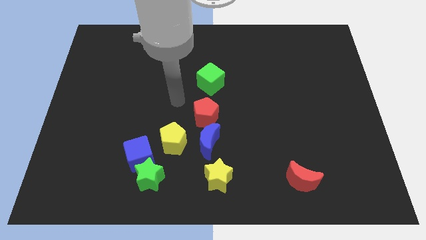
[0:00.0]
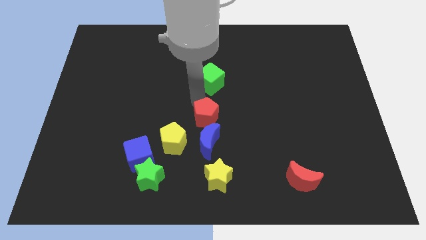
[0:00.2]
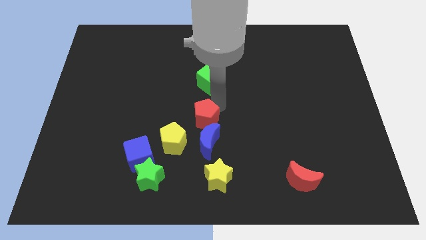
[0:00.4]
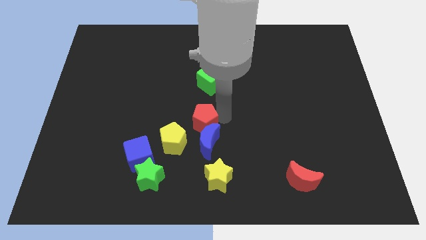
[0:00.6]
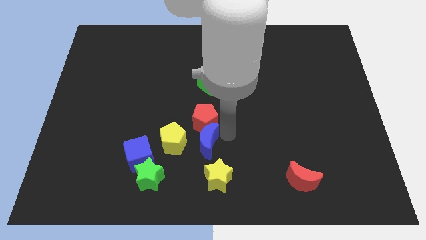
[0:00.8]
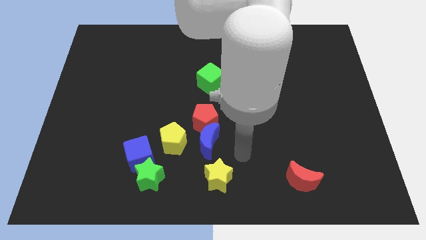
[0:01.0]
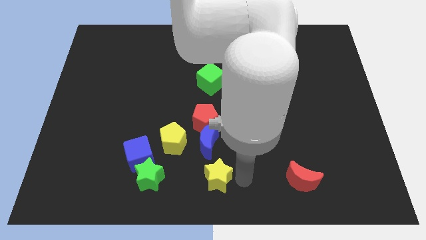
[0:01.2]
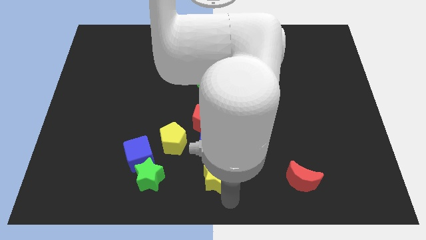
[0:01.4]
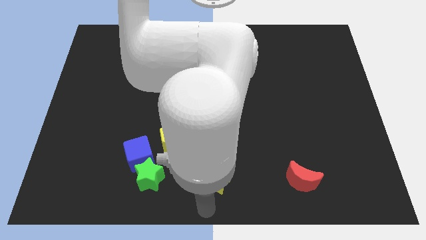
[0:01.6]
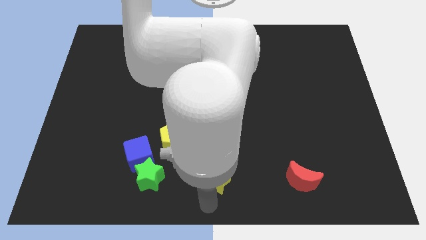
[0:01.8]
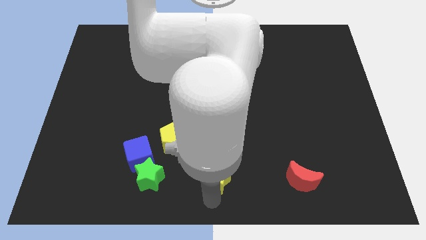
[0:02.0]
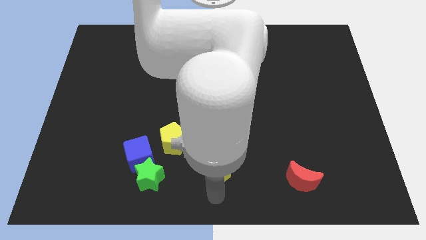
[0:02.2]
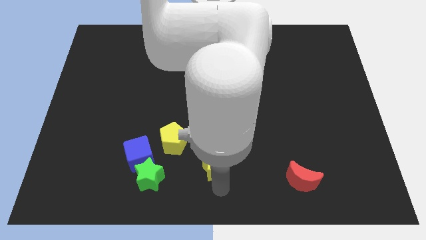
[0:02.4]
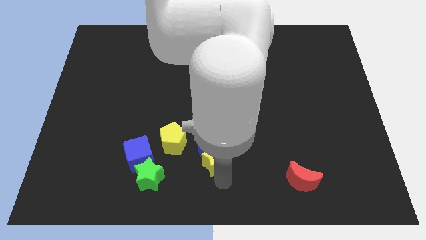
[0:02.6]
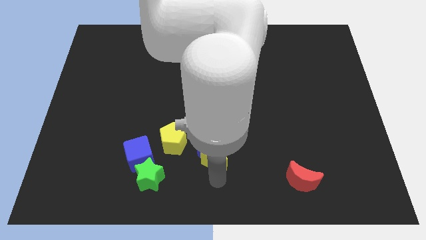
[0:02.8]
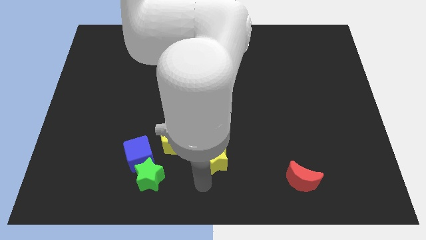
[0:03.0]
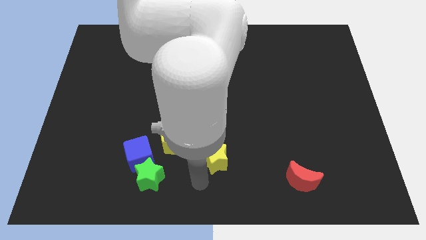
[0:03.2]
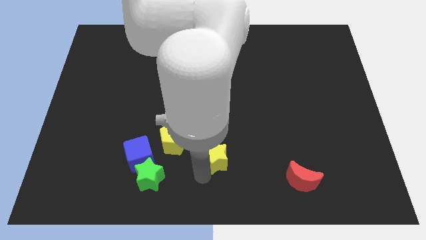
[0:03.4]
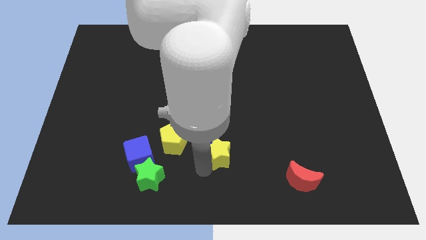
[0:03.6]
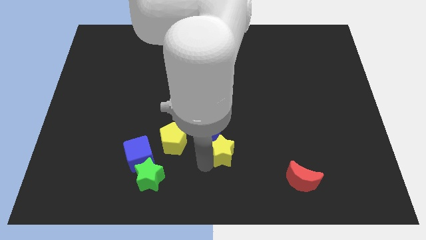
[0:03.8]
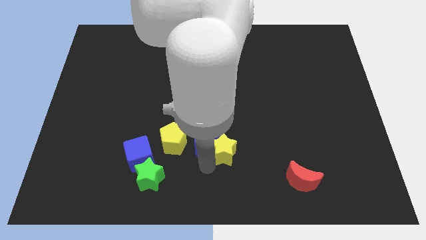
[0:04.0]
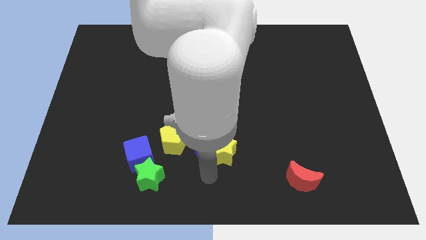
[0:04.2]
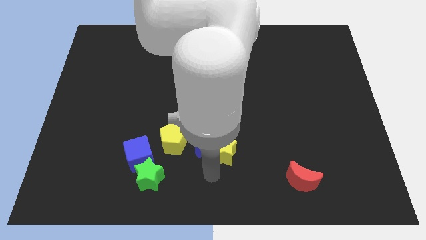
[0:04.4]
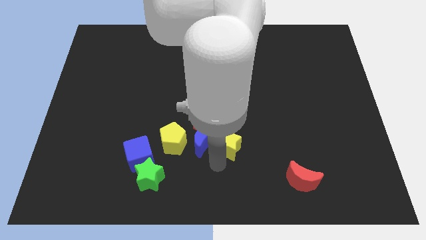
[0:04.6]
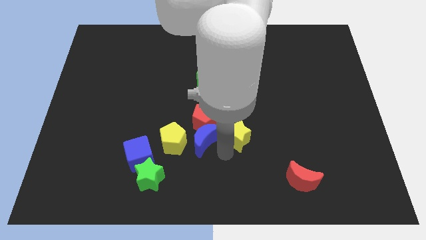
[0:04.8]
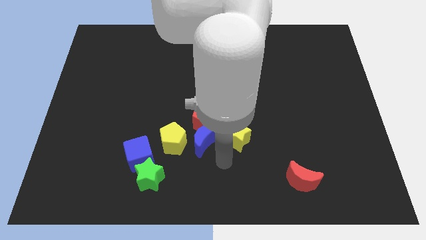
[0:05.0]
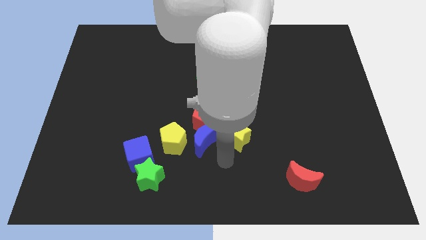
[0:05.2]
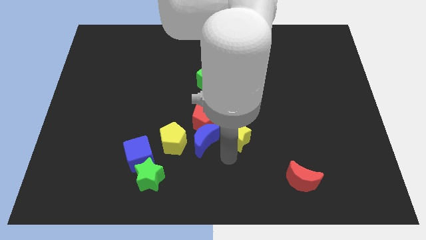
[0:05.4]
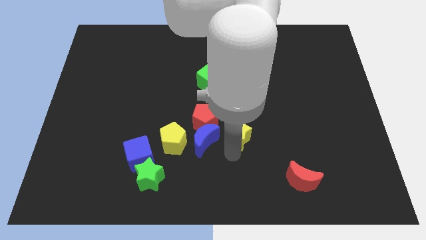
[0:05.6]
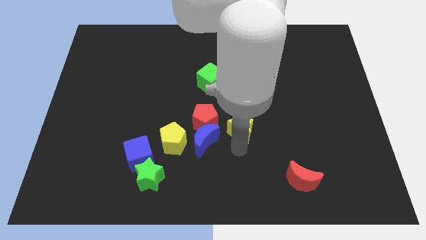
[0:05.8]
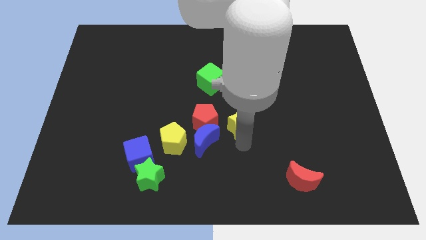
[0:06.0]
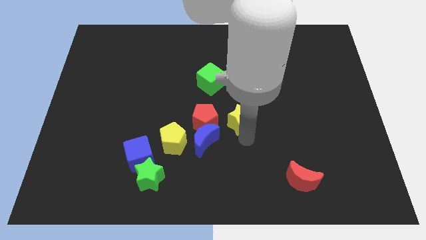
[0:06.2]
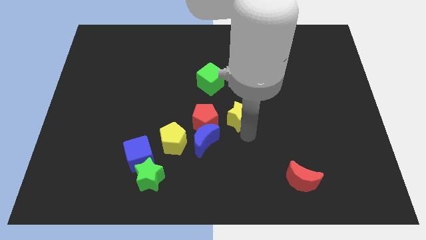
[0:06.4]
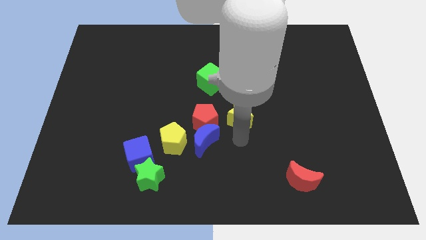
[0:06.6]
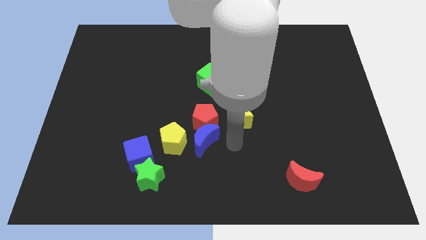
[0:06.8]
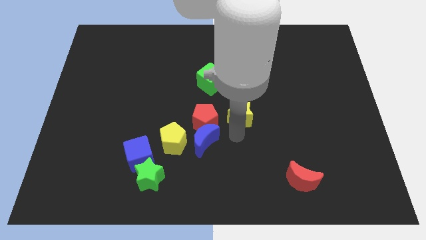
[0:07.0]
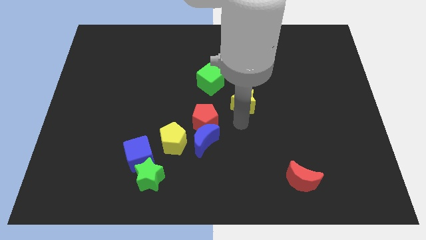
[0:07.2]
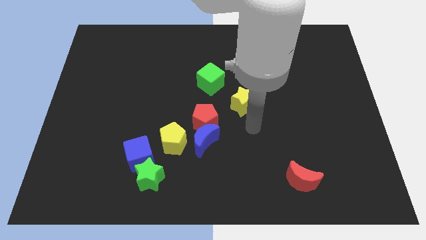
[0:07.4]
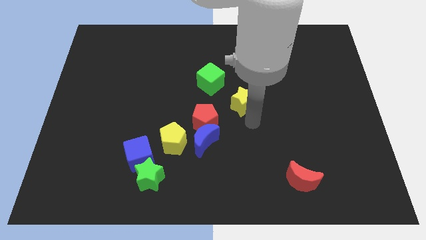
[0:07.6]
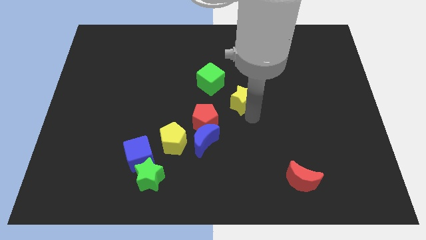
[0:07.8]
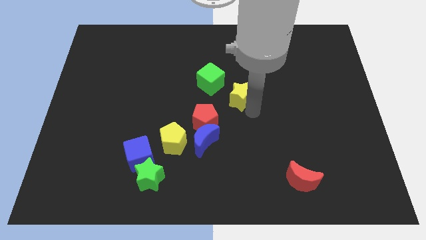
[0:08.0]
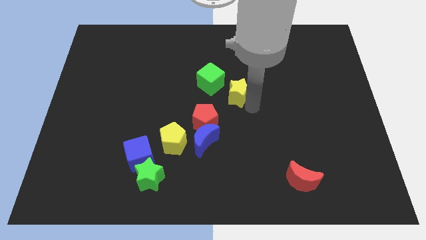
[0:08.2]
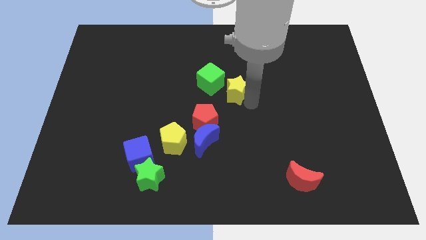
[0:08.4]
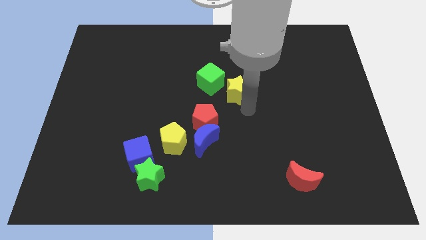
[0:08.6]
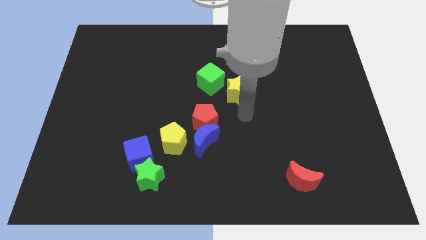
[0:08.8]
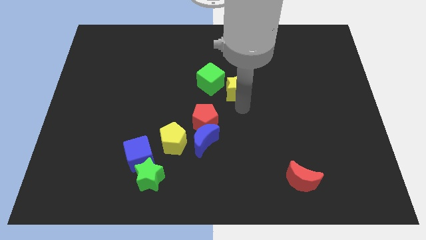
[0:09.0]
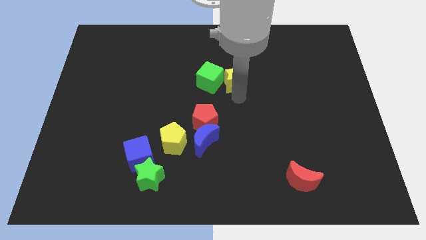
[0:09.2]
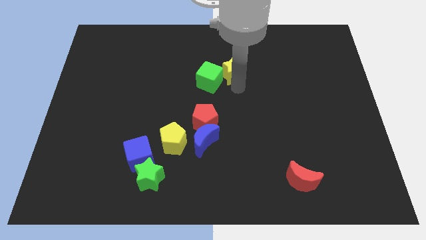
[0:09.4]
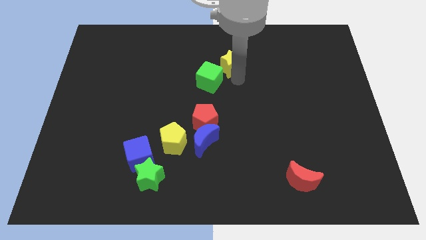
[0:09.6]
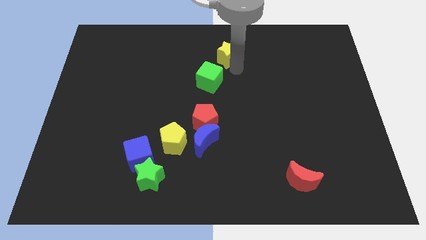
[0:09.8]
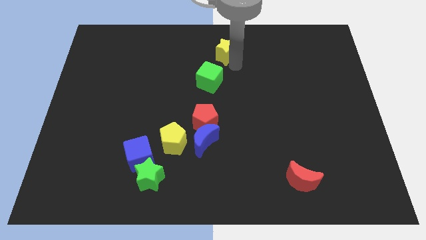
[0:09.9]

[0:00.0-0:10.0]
push the yellow star to the top side

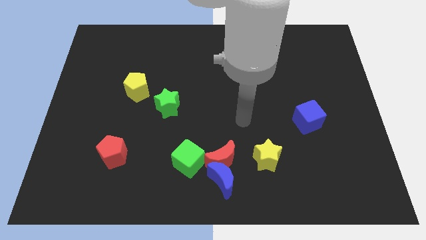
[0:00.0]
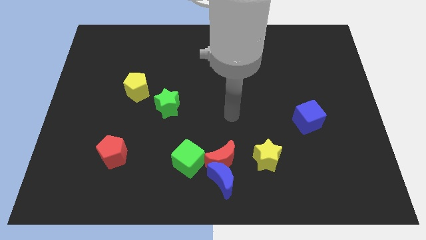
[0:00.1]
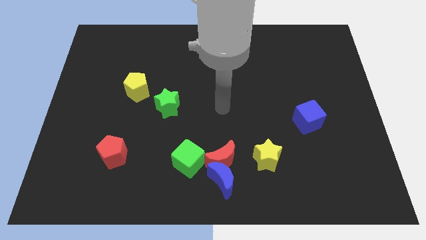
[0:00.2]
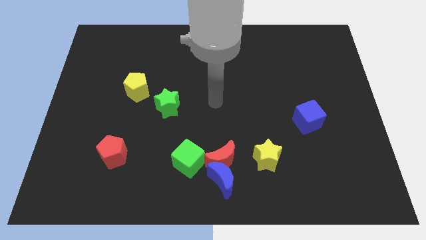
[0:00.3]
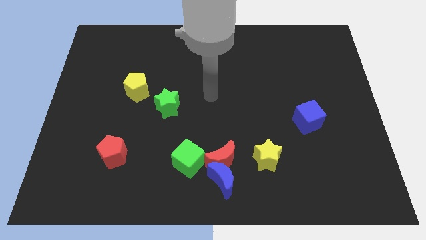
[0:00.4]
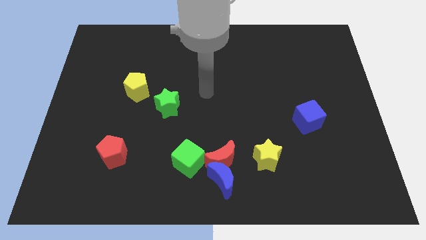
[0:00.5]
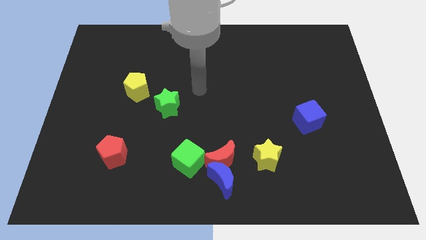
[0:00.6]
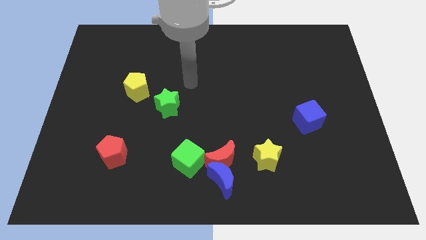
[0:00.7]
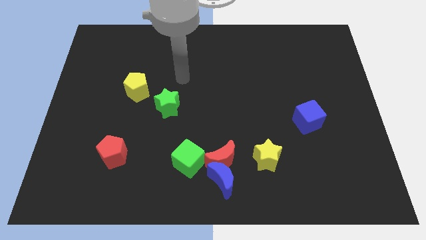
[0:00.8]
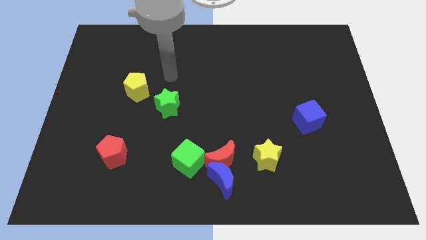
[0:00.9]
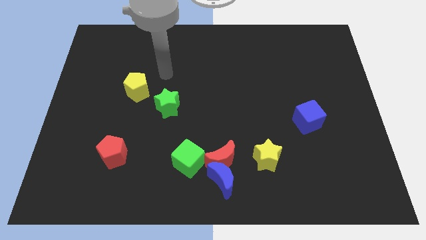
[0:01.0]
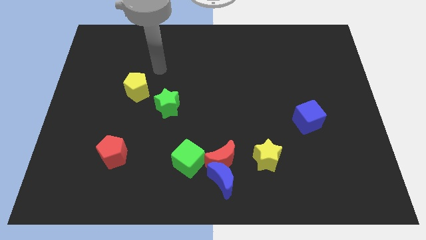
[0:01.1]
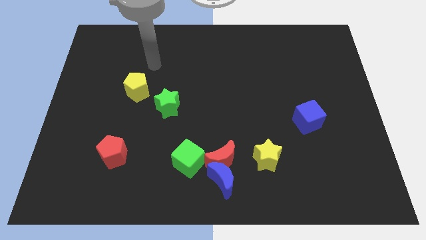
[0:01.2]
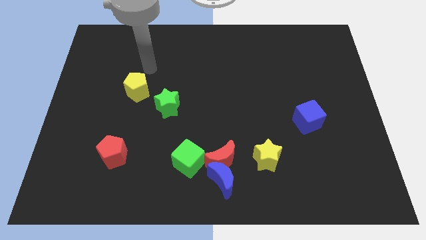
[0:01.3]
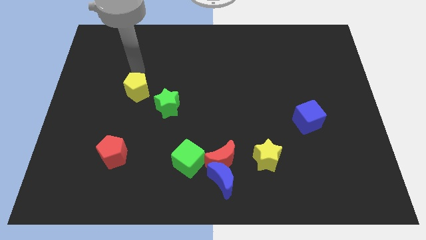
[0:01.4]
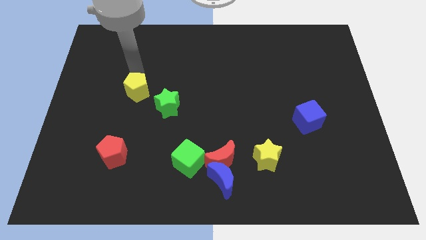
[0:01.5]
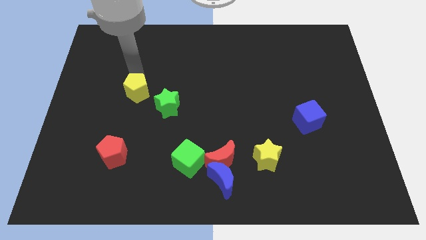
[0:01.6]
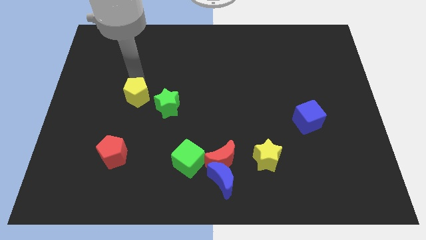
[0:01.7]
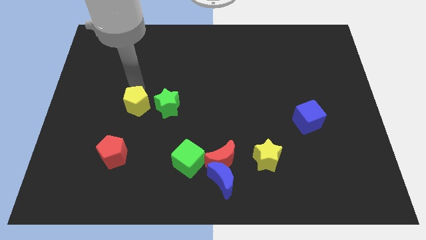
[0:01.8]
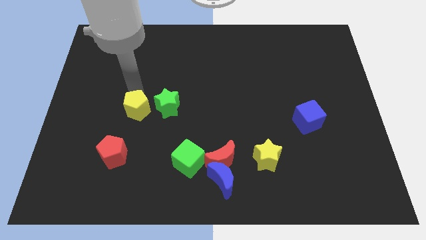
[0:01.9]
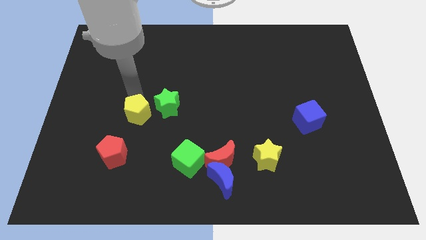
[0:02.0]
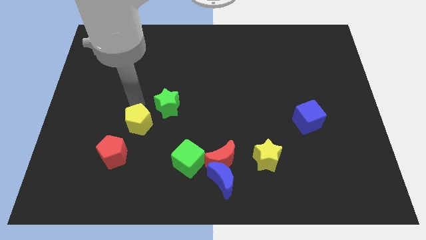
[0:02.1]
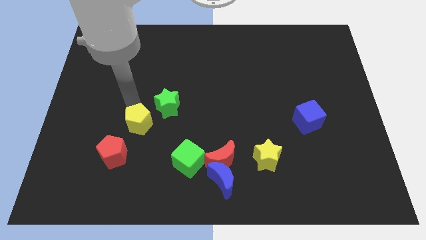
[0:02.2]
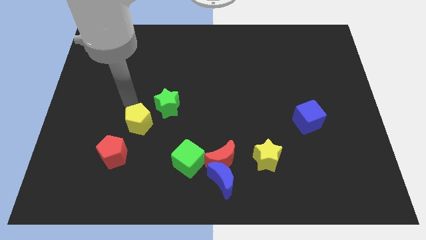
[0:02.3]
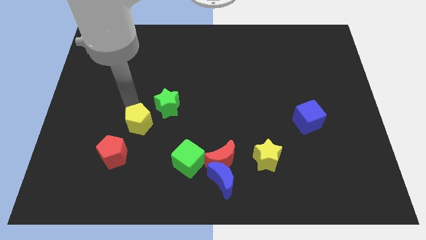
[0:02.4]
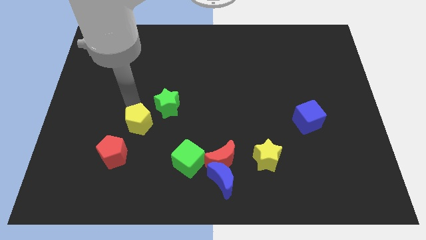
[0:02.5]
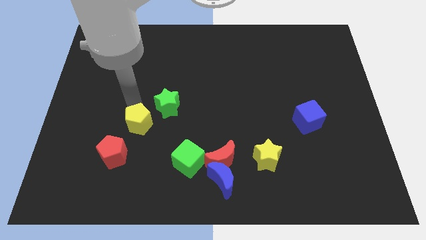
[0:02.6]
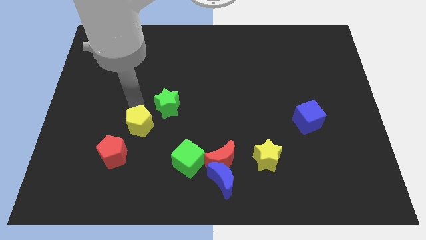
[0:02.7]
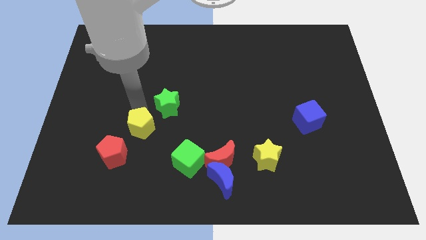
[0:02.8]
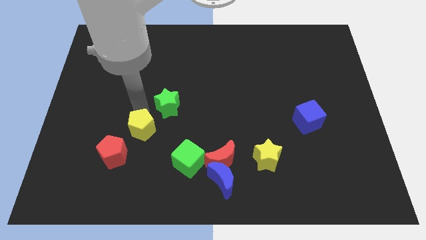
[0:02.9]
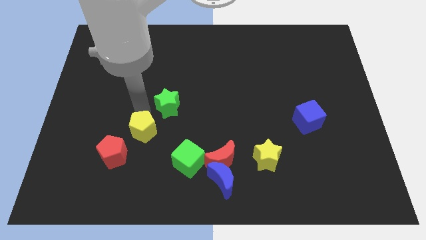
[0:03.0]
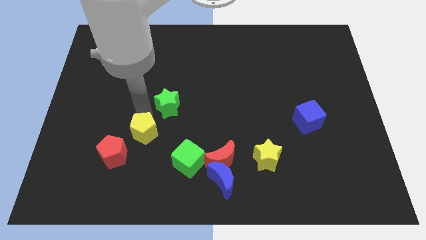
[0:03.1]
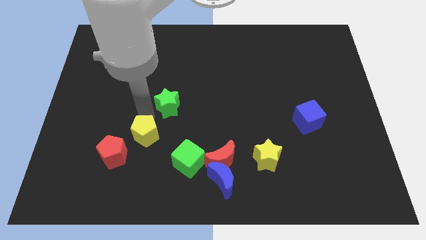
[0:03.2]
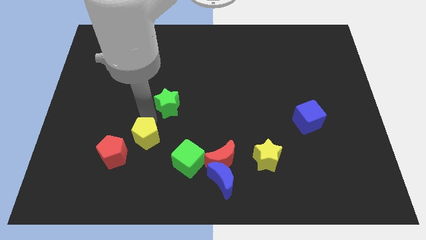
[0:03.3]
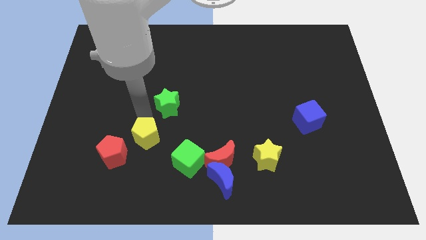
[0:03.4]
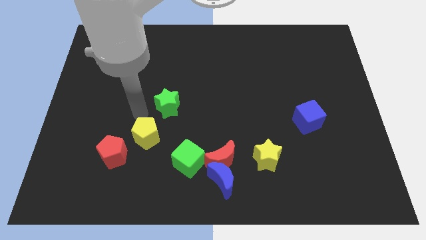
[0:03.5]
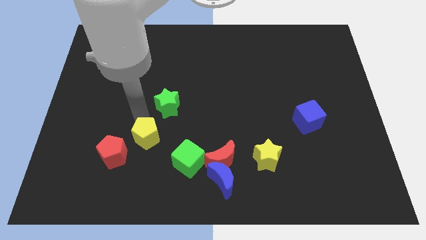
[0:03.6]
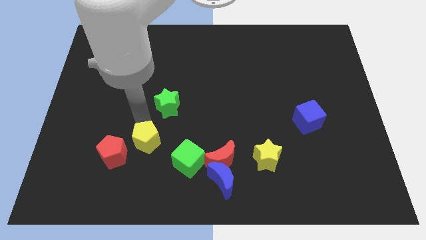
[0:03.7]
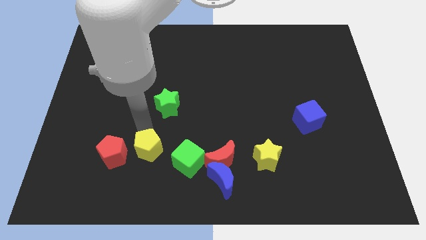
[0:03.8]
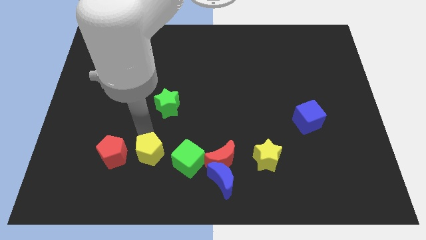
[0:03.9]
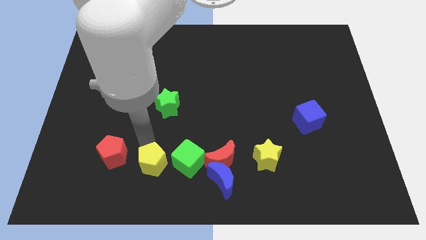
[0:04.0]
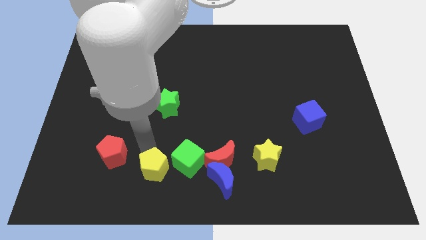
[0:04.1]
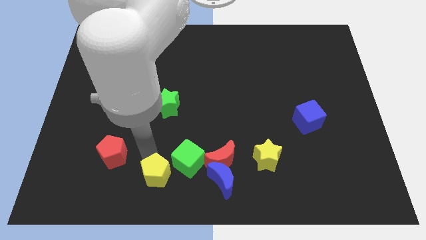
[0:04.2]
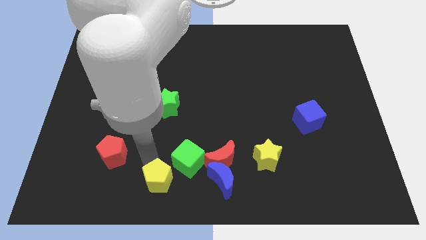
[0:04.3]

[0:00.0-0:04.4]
push the yellow pentagon to the bottom
